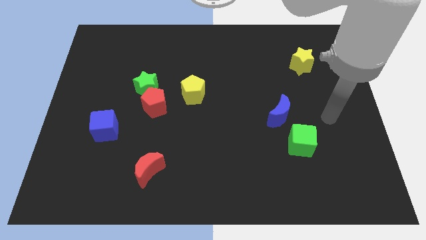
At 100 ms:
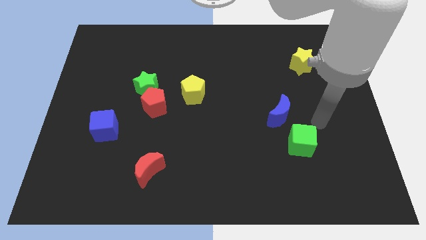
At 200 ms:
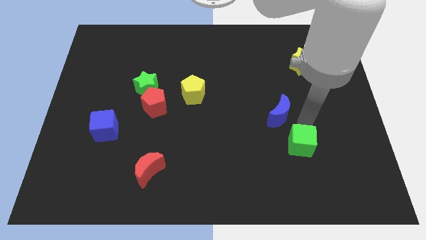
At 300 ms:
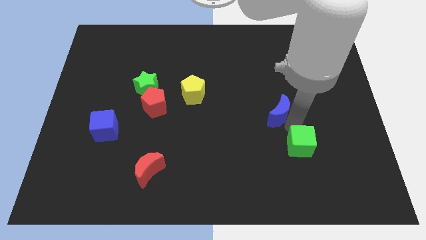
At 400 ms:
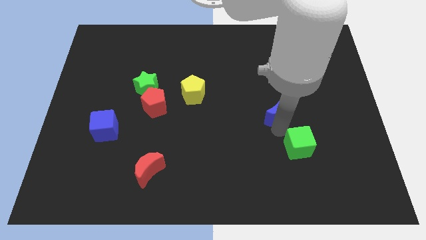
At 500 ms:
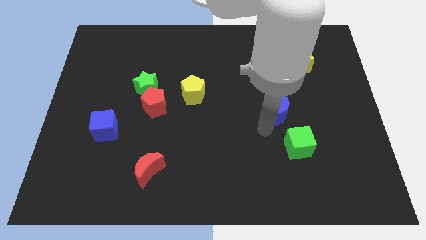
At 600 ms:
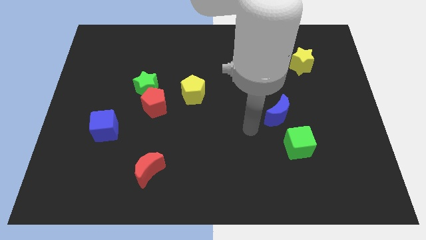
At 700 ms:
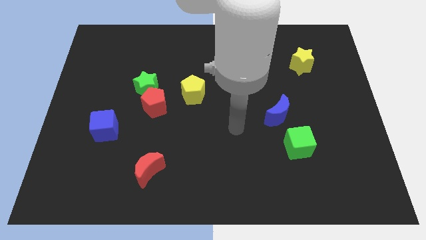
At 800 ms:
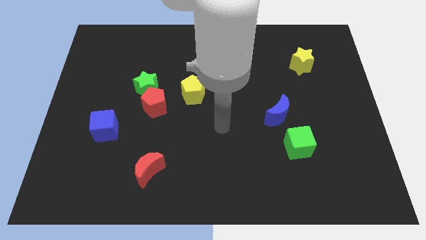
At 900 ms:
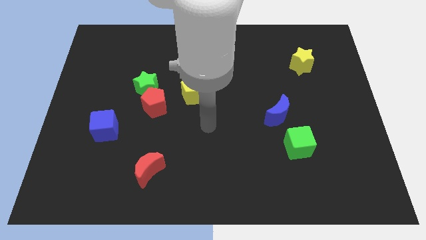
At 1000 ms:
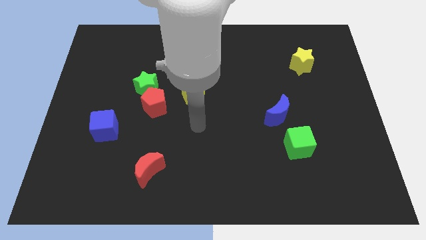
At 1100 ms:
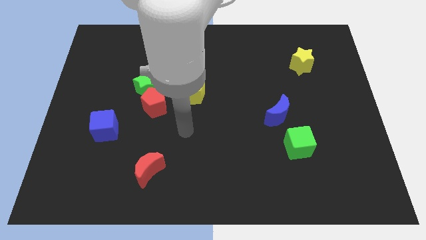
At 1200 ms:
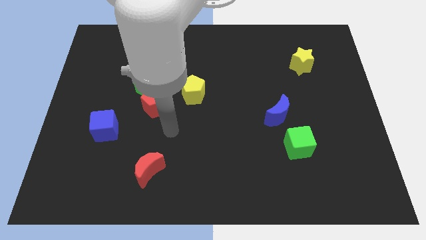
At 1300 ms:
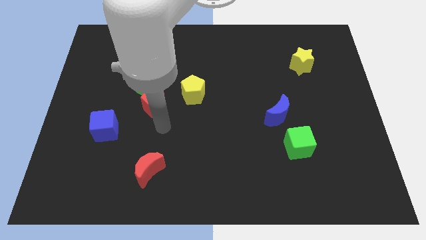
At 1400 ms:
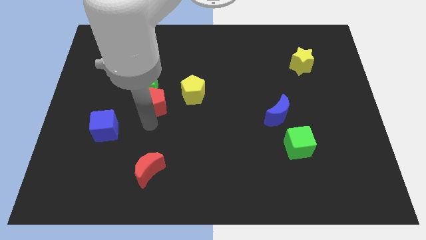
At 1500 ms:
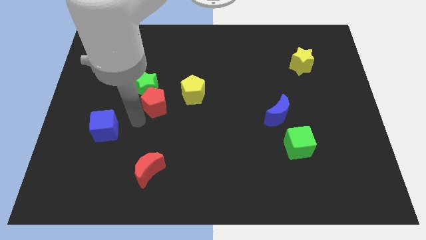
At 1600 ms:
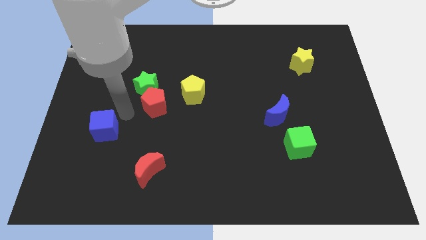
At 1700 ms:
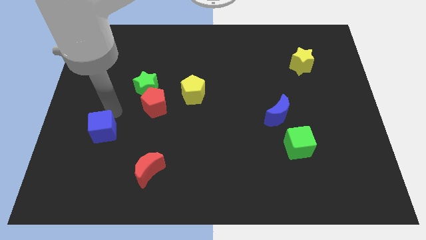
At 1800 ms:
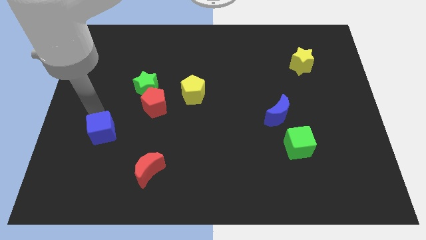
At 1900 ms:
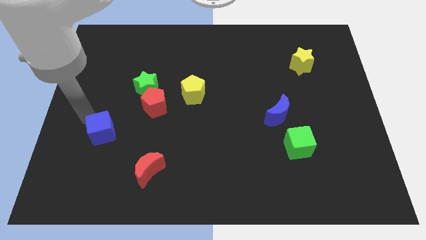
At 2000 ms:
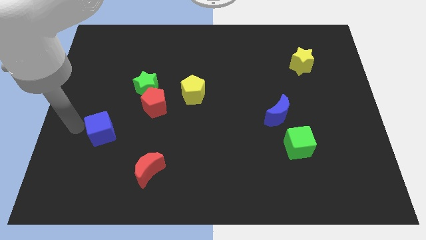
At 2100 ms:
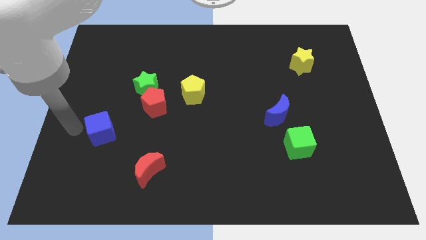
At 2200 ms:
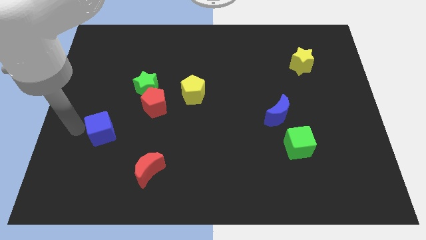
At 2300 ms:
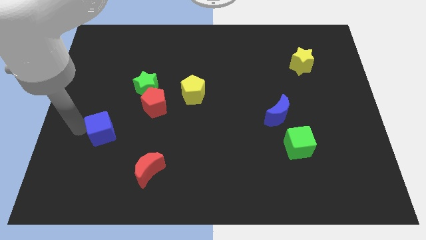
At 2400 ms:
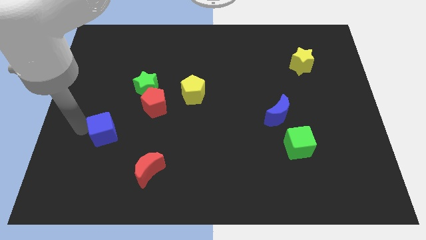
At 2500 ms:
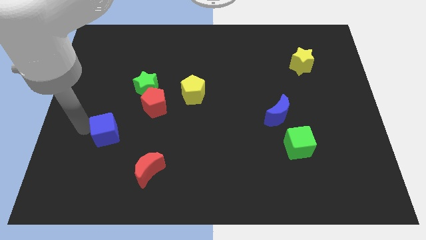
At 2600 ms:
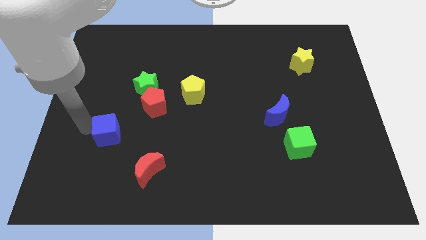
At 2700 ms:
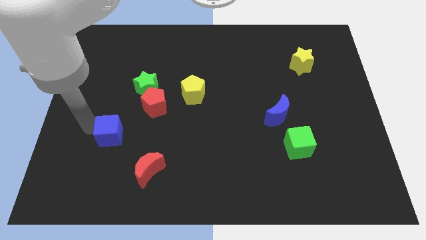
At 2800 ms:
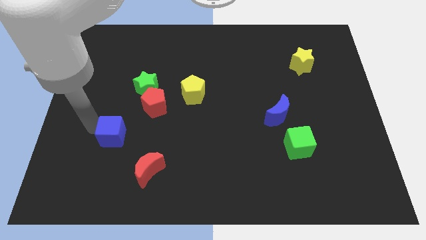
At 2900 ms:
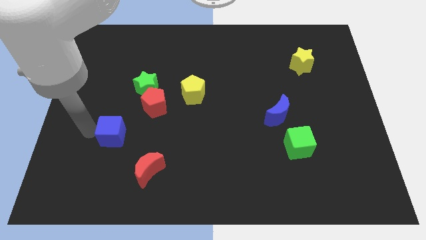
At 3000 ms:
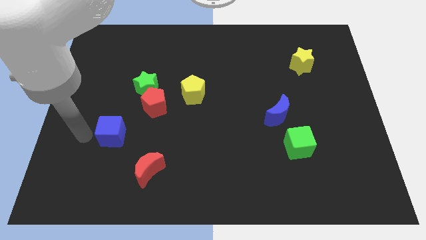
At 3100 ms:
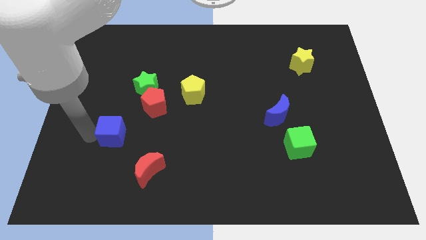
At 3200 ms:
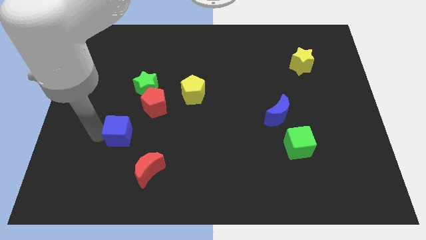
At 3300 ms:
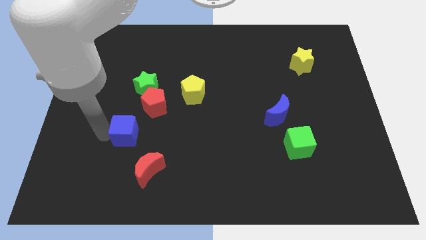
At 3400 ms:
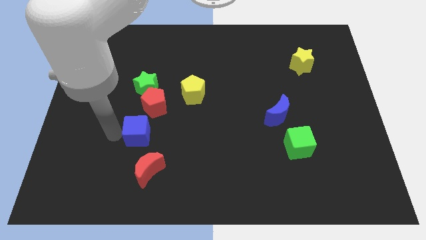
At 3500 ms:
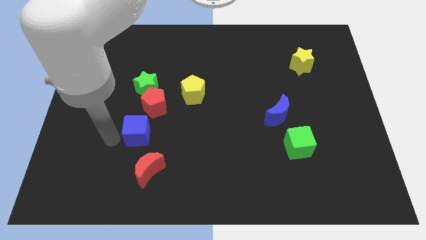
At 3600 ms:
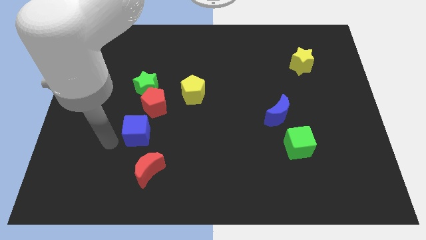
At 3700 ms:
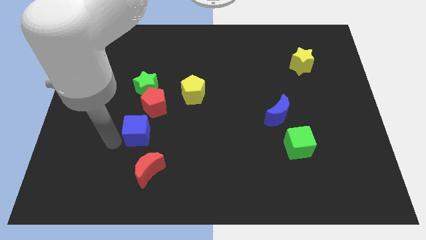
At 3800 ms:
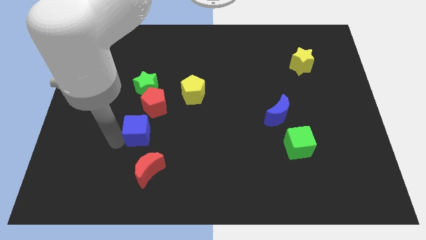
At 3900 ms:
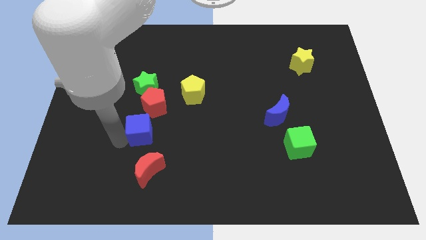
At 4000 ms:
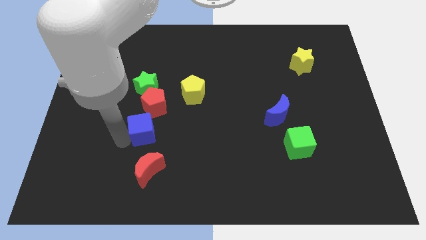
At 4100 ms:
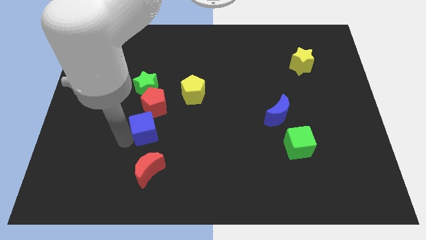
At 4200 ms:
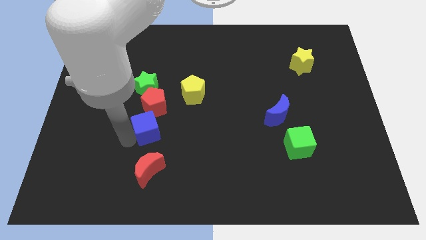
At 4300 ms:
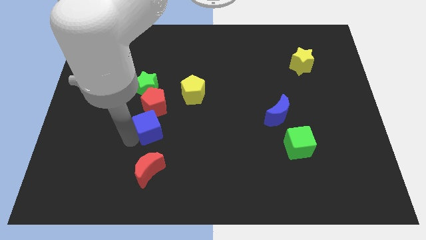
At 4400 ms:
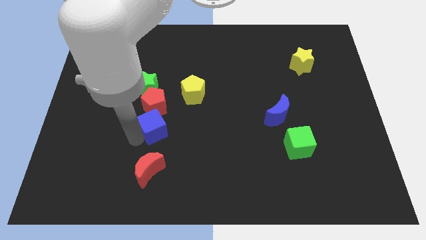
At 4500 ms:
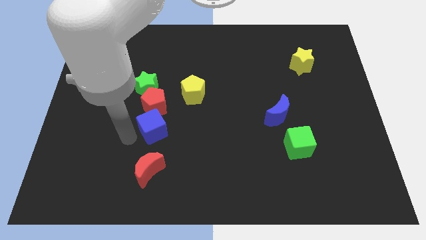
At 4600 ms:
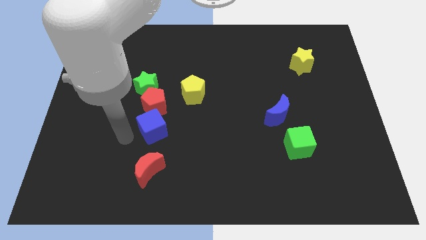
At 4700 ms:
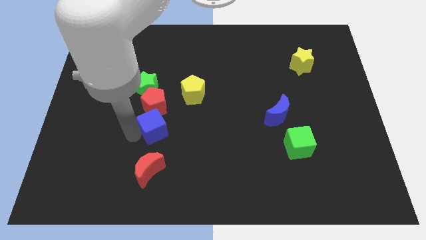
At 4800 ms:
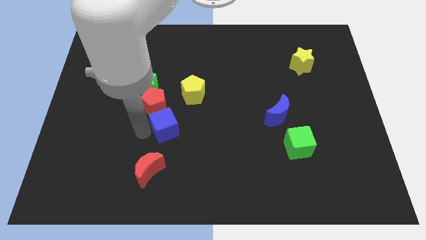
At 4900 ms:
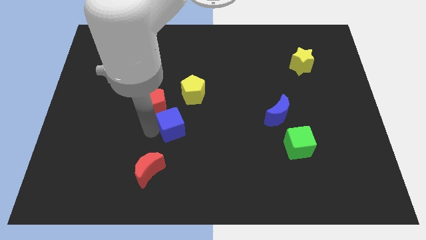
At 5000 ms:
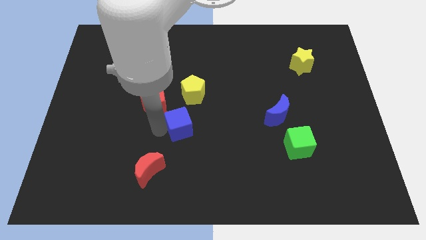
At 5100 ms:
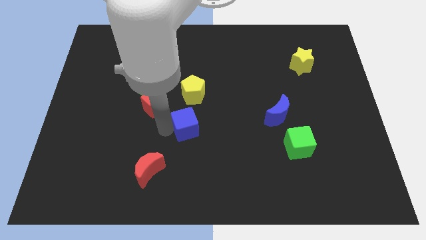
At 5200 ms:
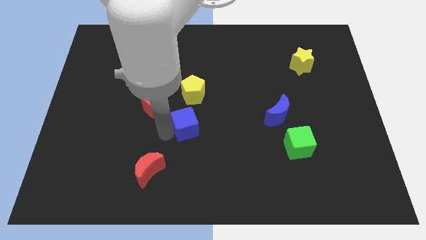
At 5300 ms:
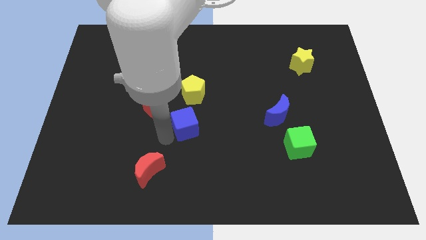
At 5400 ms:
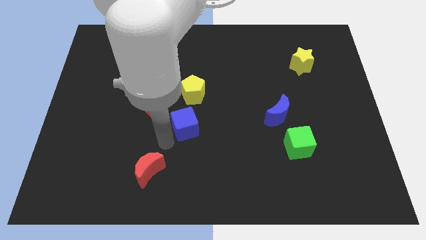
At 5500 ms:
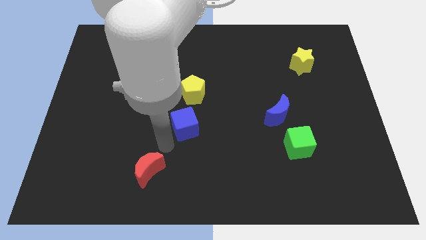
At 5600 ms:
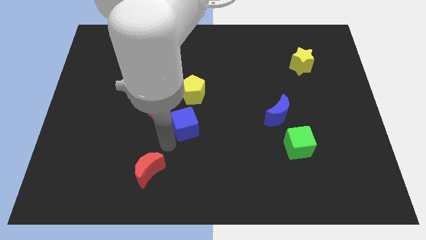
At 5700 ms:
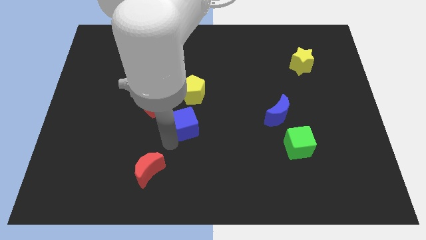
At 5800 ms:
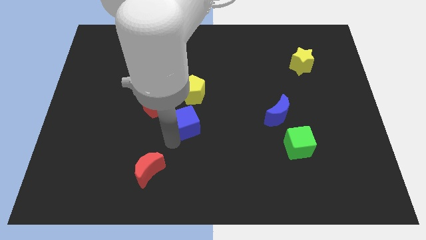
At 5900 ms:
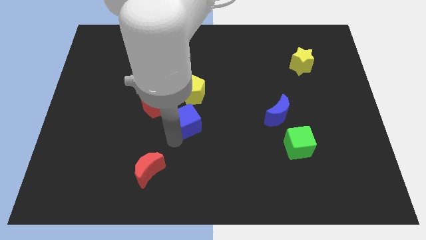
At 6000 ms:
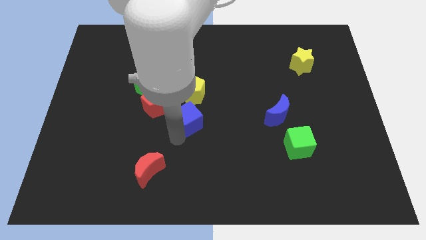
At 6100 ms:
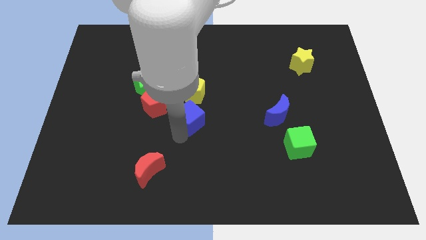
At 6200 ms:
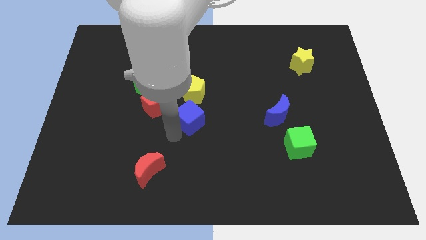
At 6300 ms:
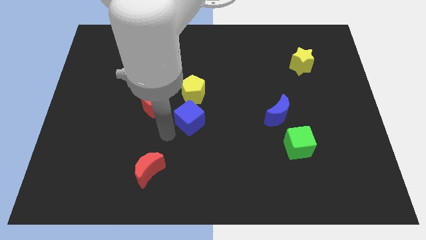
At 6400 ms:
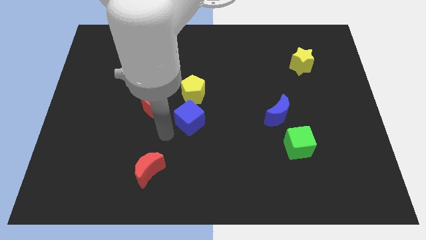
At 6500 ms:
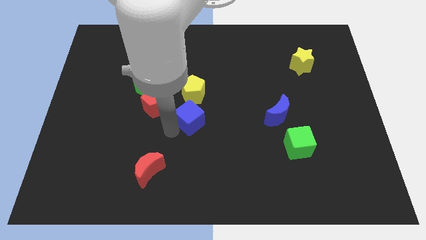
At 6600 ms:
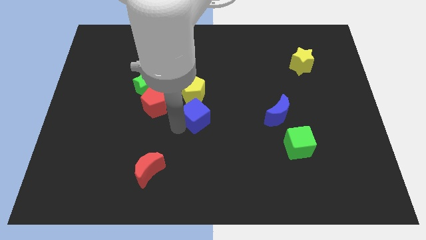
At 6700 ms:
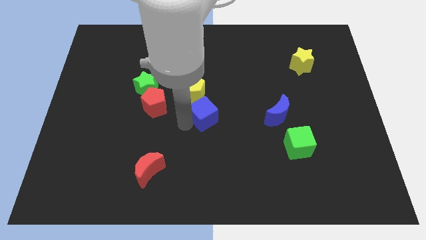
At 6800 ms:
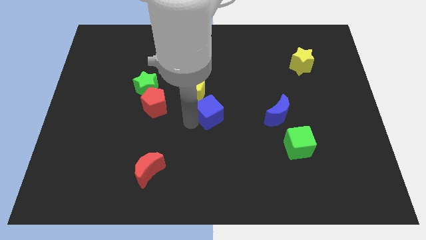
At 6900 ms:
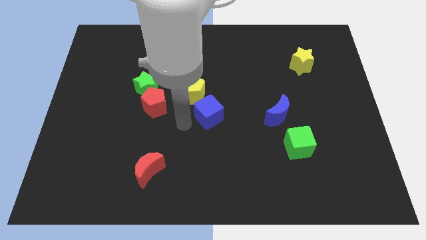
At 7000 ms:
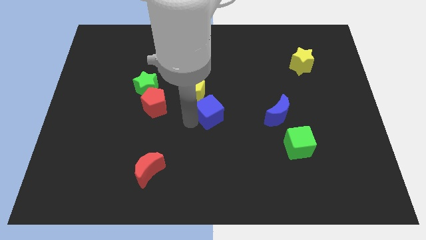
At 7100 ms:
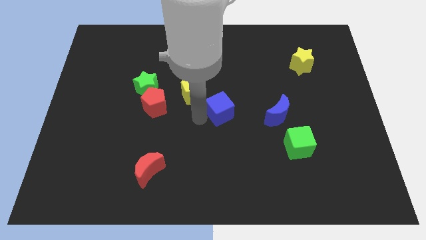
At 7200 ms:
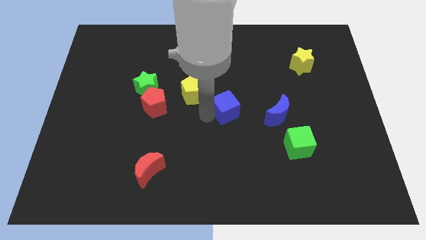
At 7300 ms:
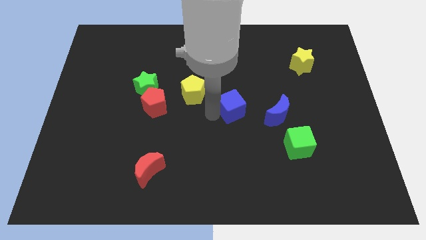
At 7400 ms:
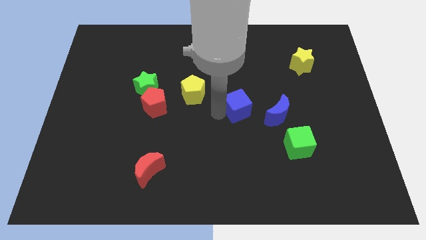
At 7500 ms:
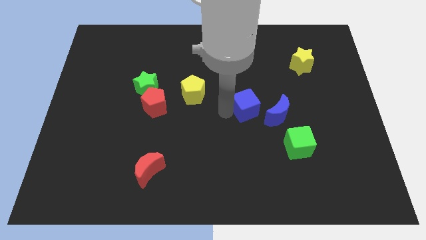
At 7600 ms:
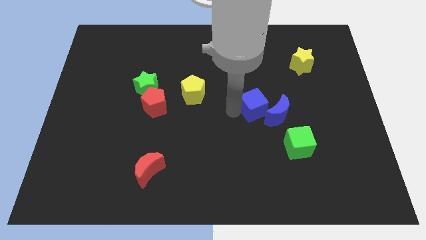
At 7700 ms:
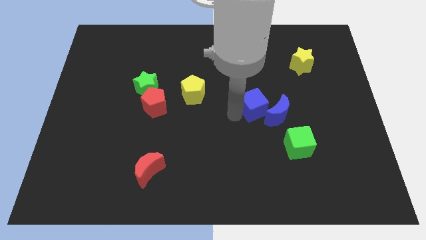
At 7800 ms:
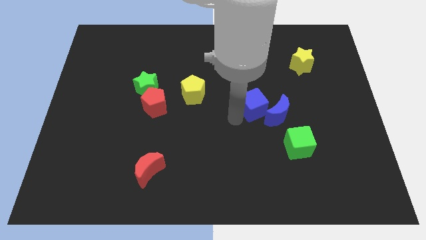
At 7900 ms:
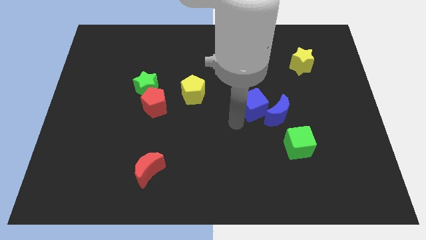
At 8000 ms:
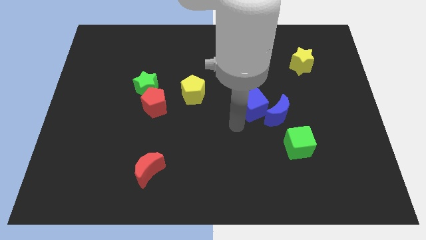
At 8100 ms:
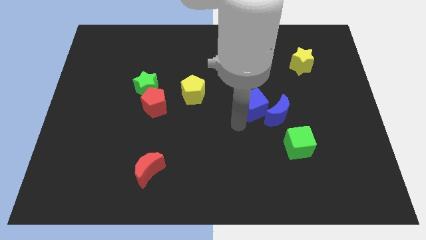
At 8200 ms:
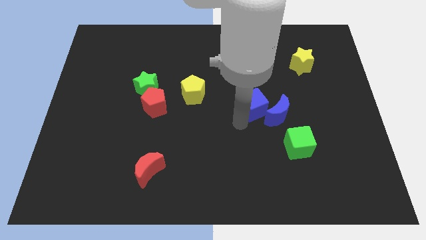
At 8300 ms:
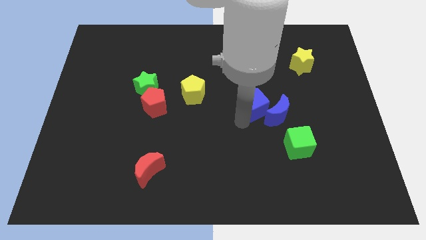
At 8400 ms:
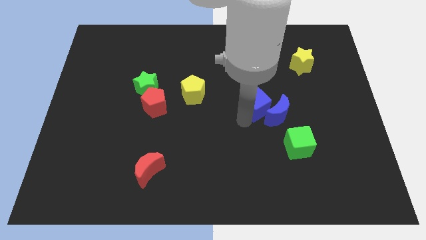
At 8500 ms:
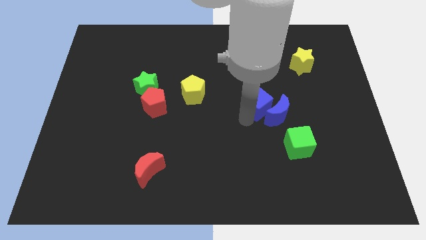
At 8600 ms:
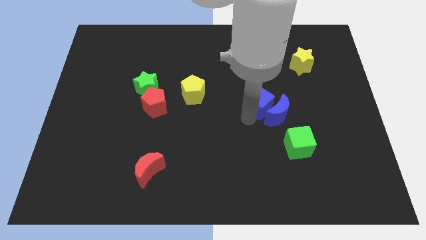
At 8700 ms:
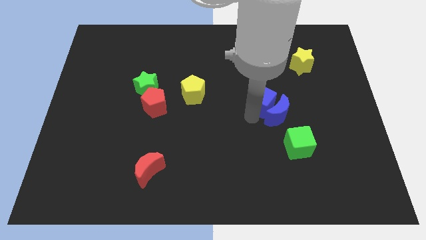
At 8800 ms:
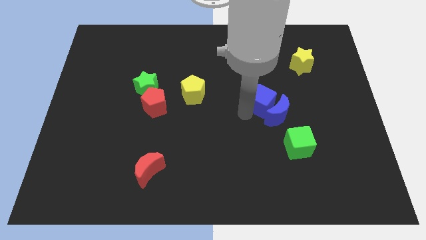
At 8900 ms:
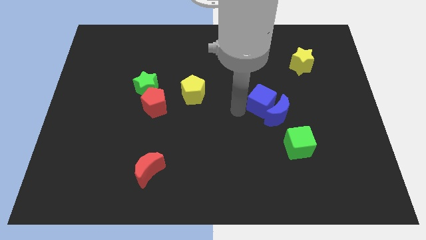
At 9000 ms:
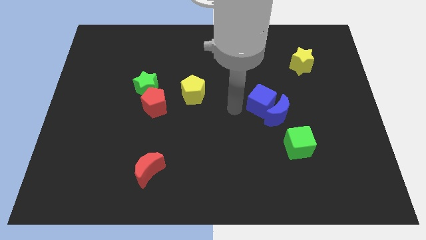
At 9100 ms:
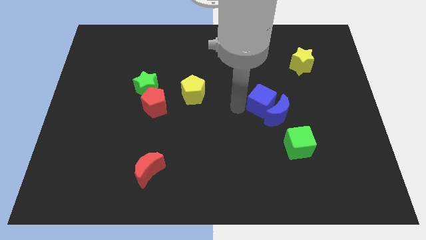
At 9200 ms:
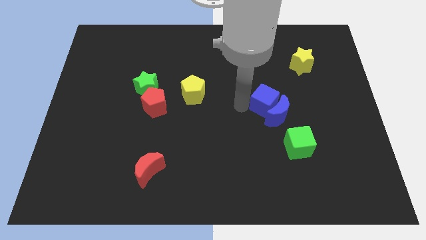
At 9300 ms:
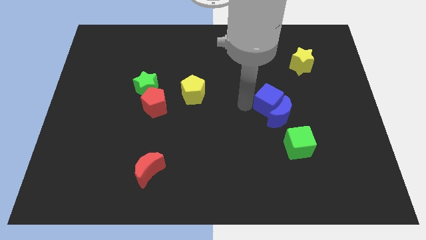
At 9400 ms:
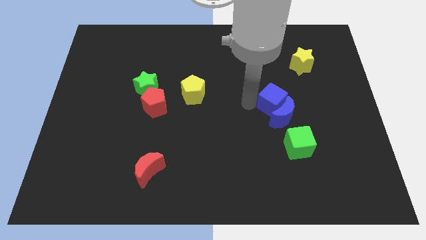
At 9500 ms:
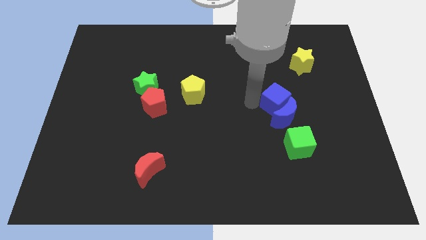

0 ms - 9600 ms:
push the blue cube diagonally up and to the right of the blue moon
